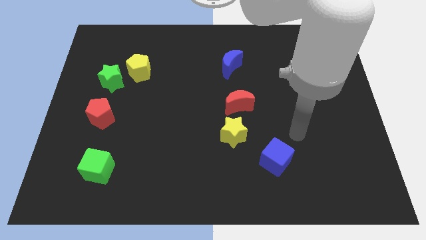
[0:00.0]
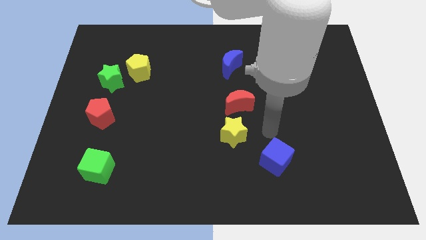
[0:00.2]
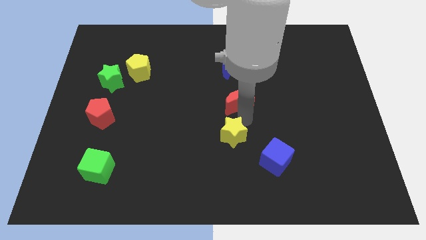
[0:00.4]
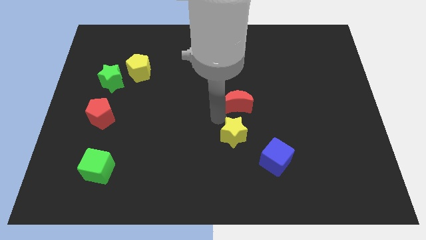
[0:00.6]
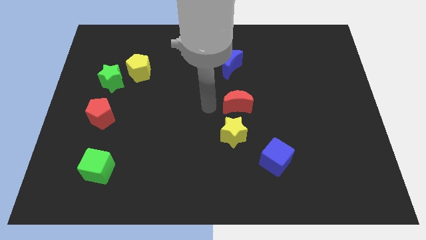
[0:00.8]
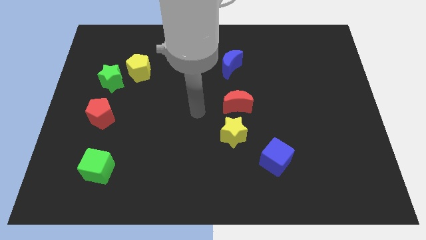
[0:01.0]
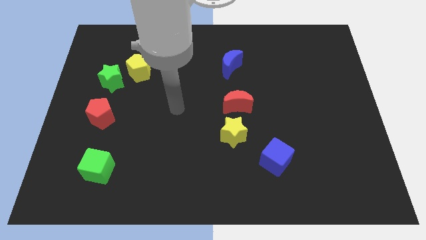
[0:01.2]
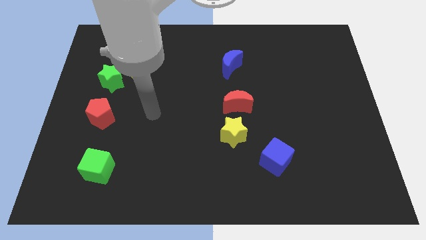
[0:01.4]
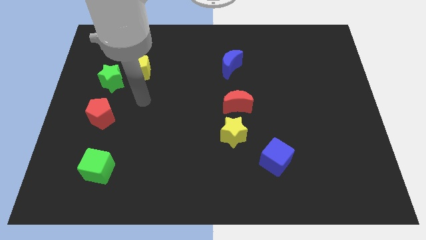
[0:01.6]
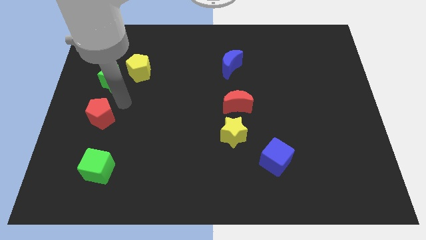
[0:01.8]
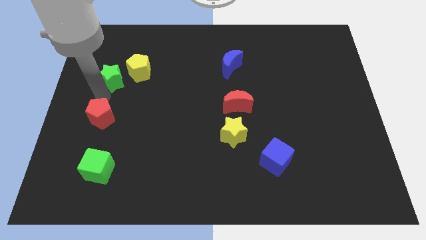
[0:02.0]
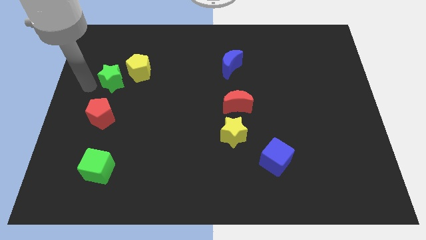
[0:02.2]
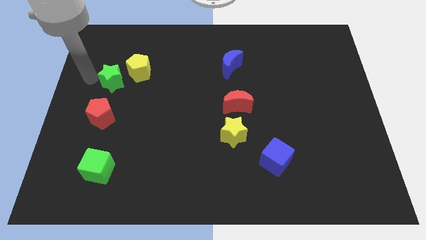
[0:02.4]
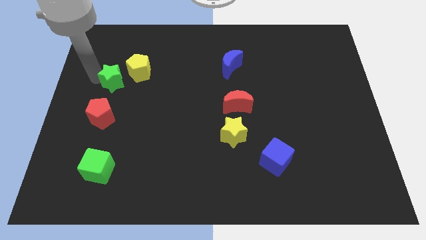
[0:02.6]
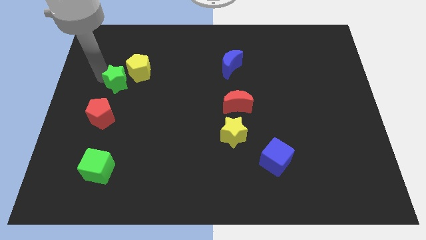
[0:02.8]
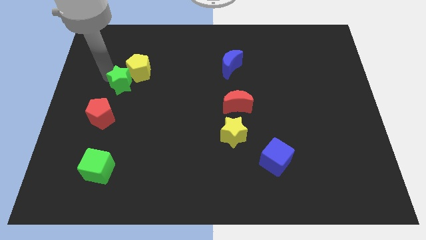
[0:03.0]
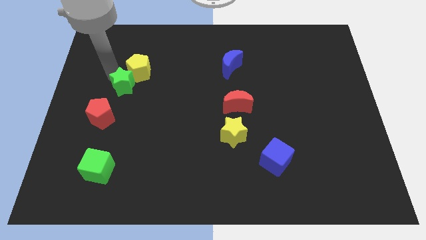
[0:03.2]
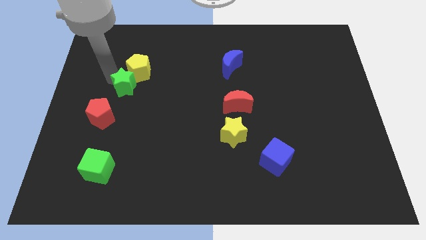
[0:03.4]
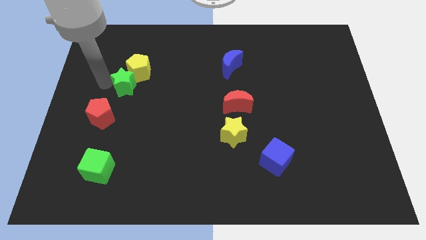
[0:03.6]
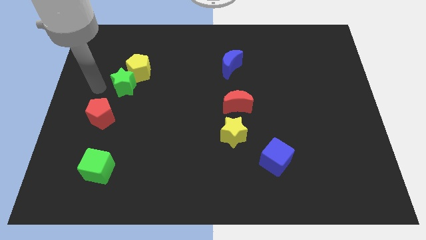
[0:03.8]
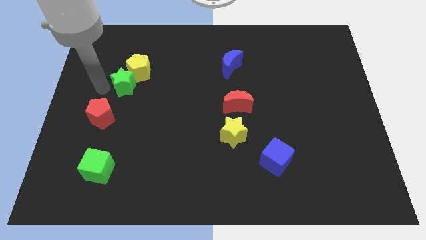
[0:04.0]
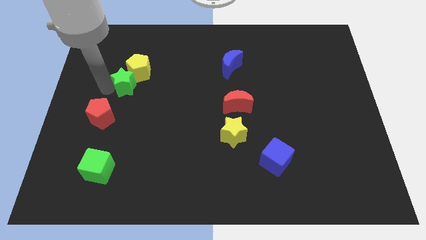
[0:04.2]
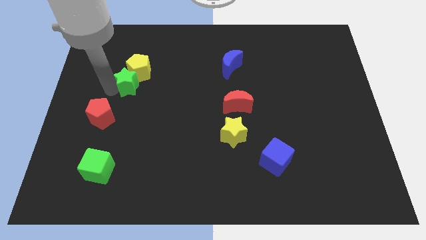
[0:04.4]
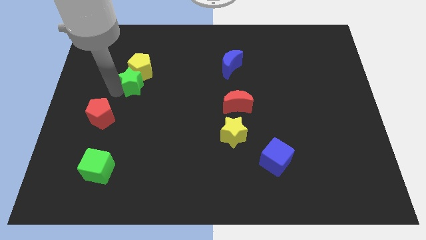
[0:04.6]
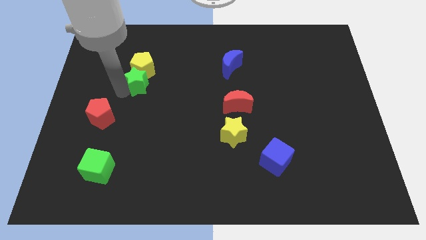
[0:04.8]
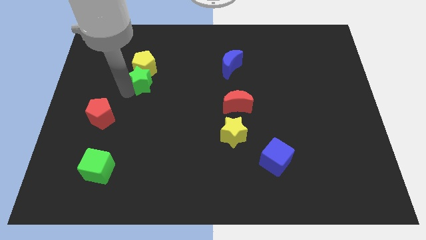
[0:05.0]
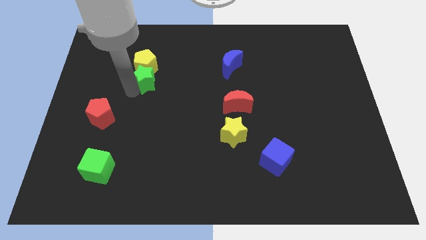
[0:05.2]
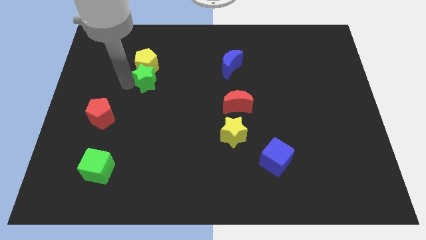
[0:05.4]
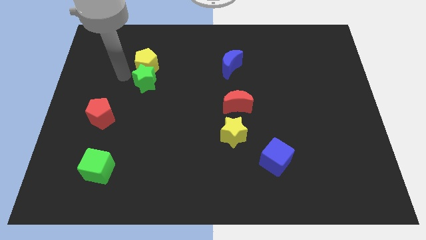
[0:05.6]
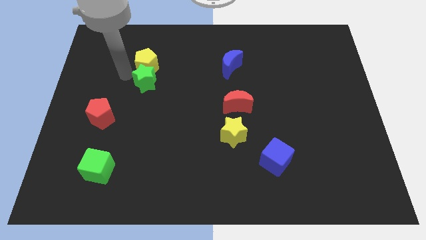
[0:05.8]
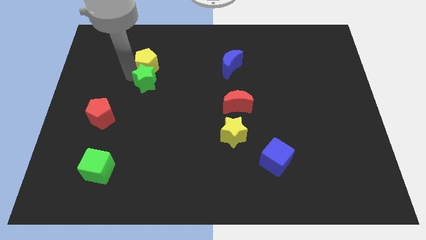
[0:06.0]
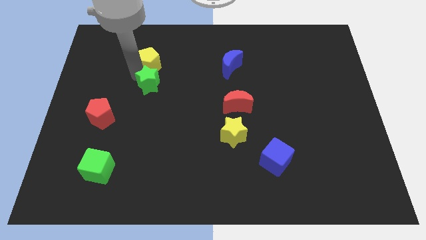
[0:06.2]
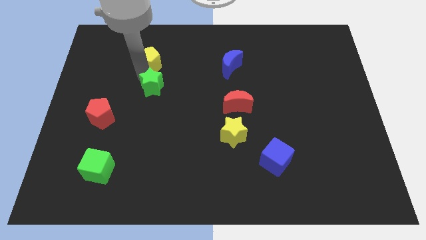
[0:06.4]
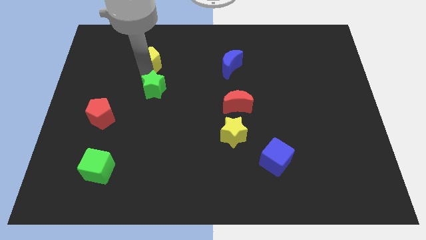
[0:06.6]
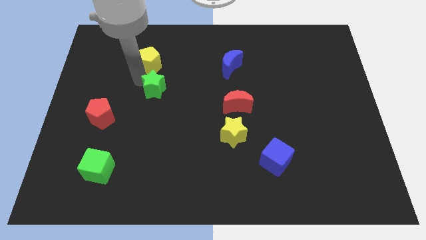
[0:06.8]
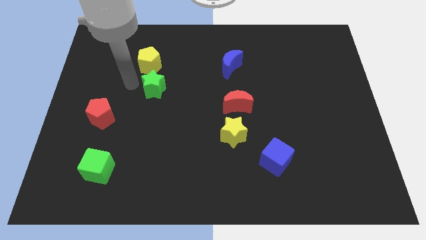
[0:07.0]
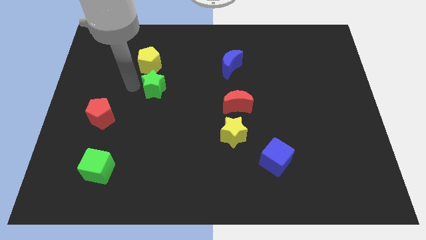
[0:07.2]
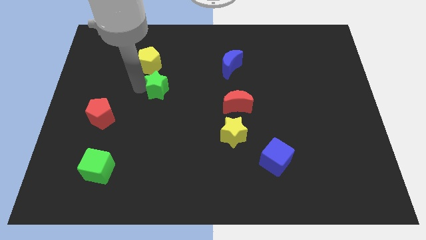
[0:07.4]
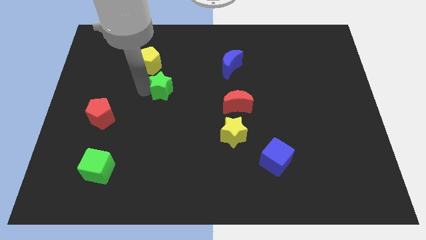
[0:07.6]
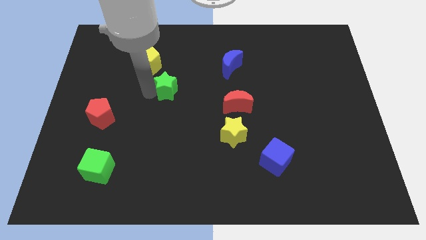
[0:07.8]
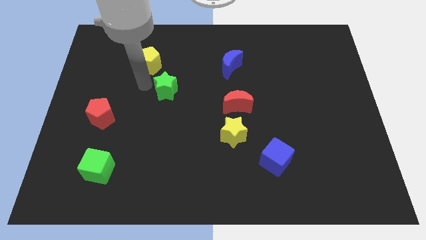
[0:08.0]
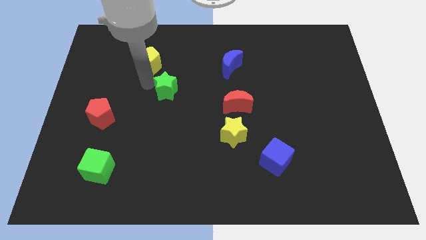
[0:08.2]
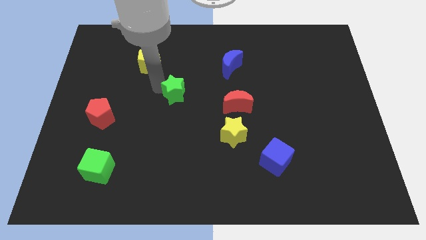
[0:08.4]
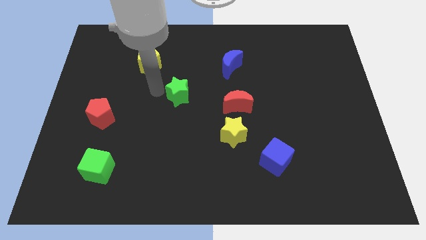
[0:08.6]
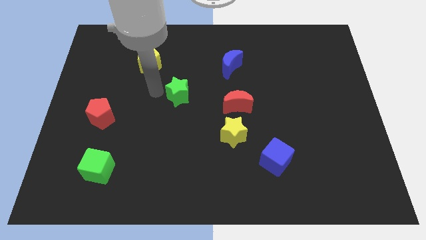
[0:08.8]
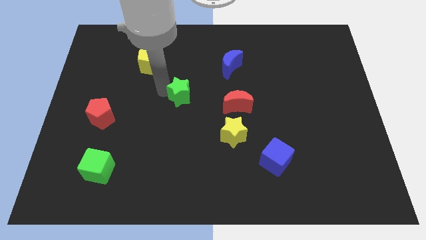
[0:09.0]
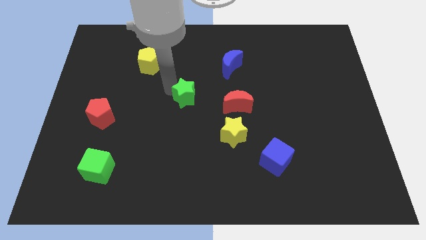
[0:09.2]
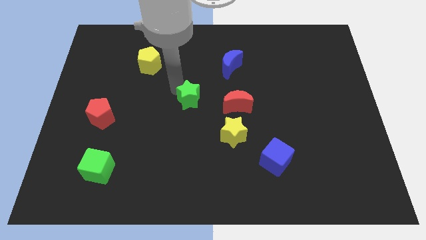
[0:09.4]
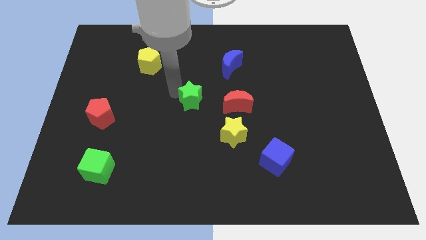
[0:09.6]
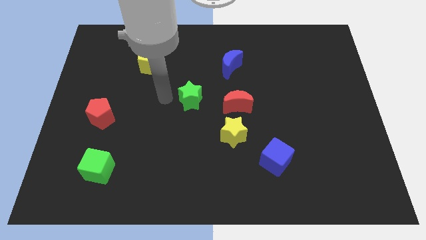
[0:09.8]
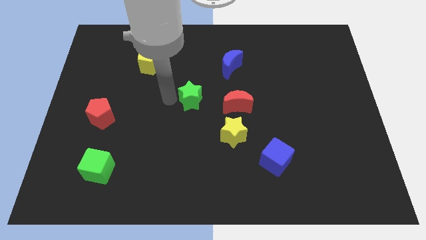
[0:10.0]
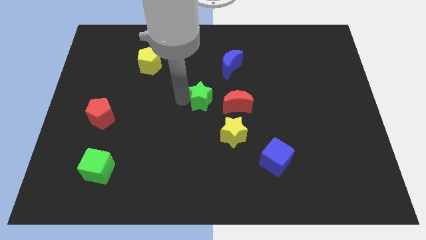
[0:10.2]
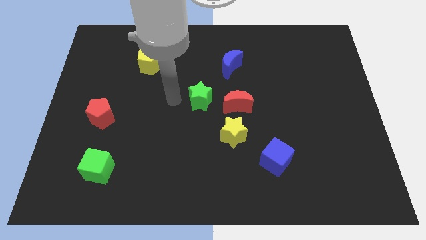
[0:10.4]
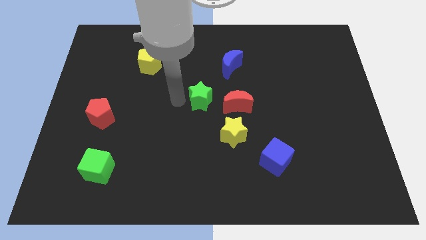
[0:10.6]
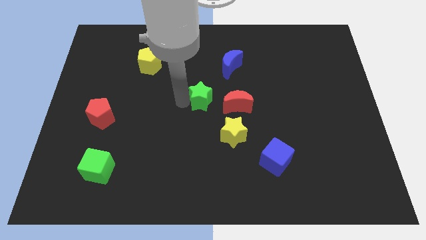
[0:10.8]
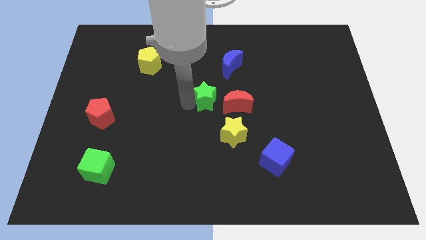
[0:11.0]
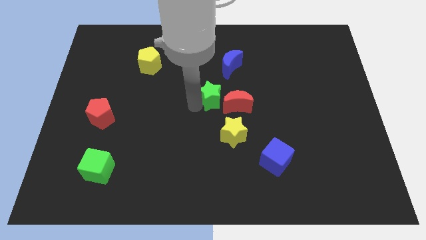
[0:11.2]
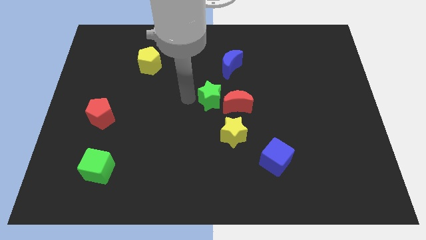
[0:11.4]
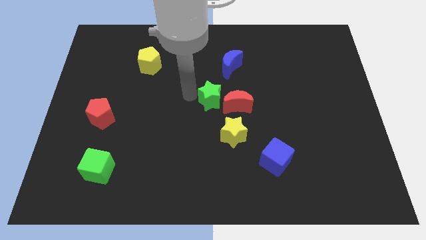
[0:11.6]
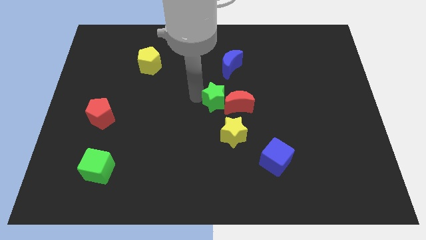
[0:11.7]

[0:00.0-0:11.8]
push the green star next to the red moon

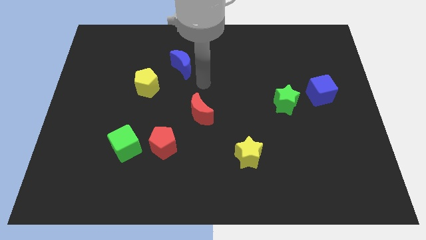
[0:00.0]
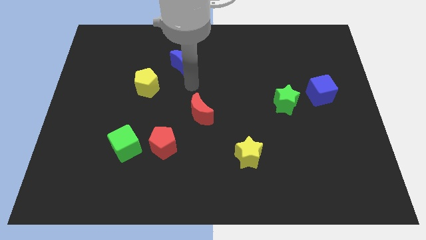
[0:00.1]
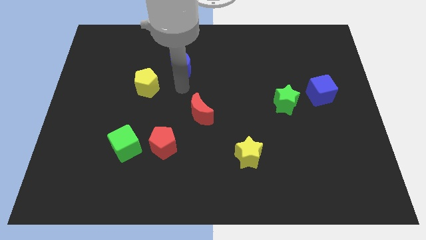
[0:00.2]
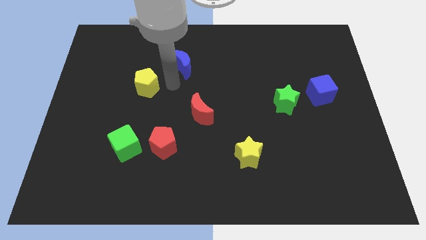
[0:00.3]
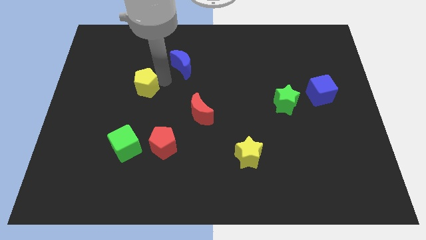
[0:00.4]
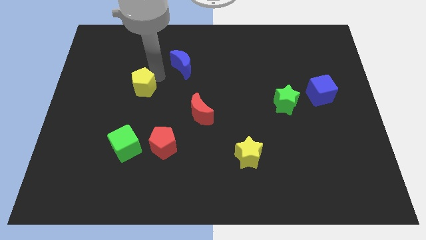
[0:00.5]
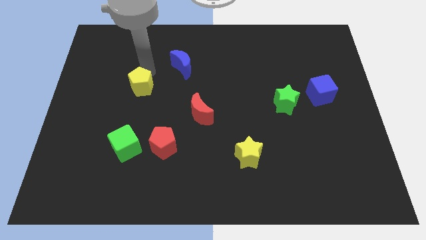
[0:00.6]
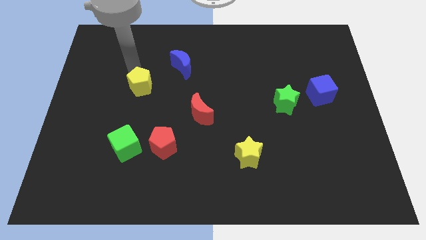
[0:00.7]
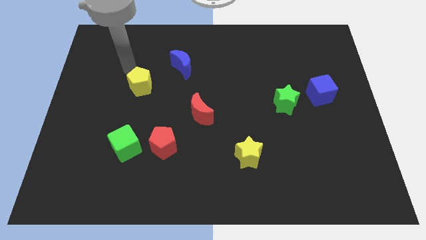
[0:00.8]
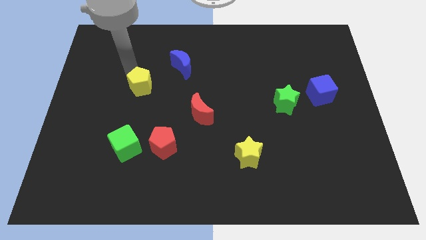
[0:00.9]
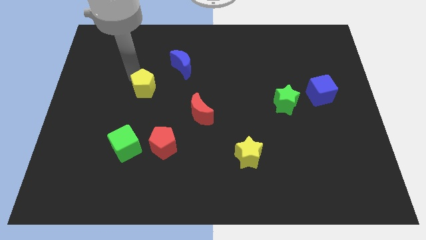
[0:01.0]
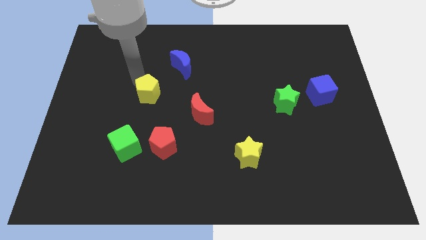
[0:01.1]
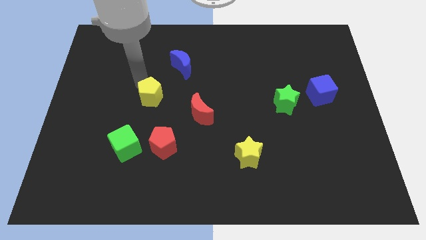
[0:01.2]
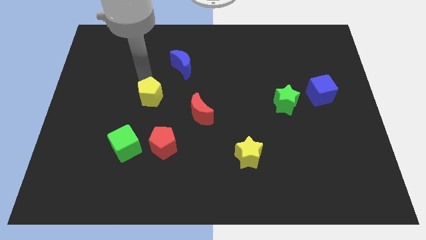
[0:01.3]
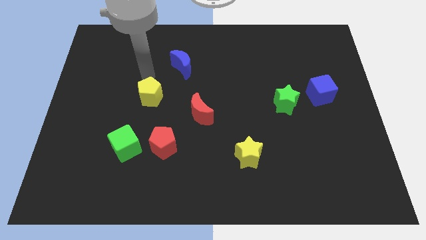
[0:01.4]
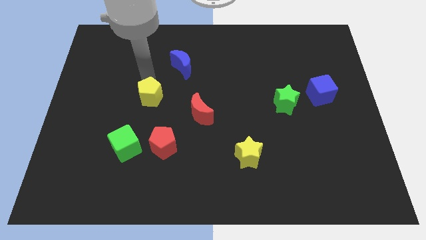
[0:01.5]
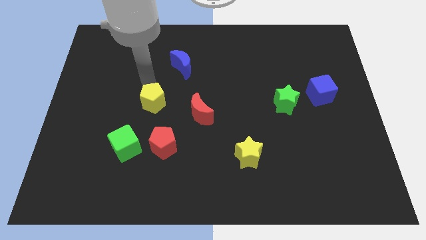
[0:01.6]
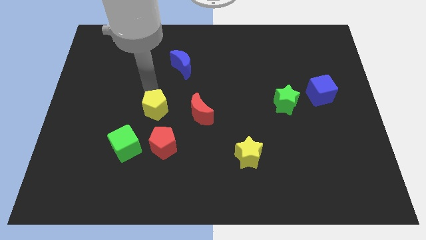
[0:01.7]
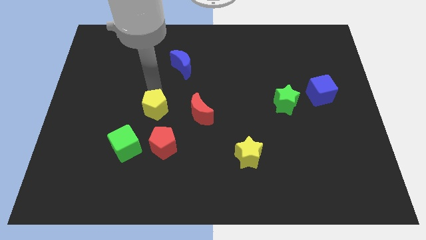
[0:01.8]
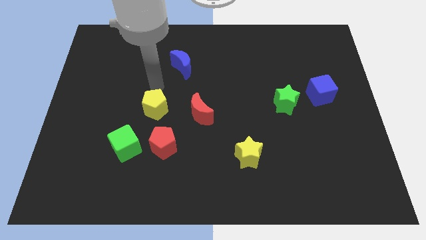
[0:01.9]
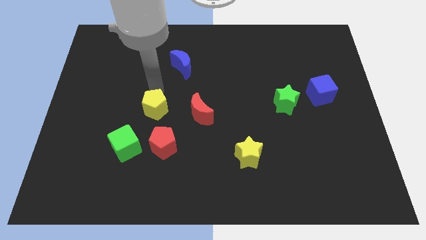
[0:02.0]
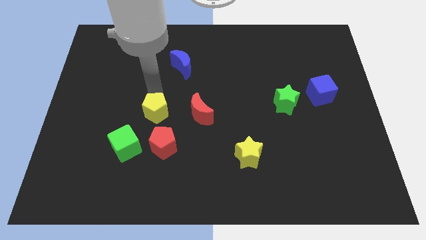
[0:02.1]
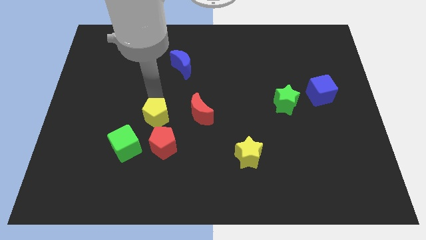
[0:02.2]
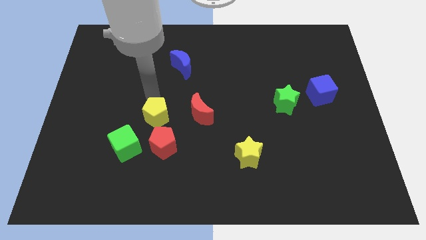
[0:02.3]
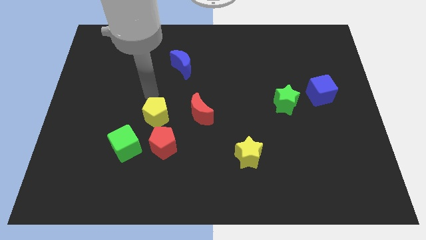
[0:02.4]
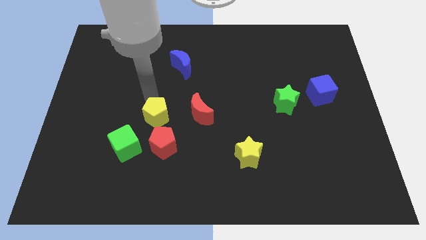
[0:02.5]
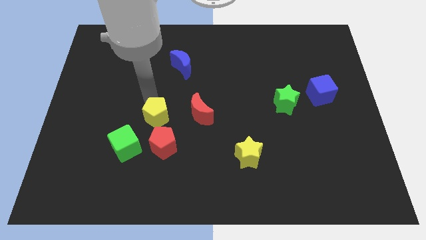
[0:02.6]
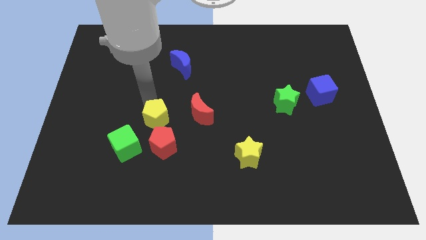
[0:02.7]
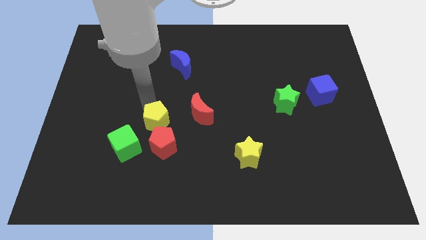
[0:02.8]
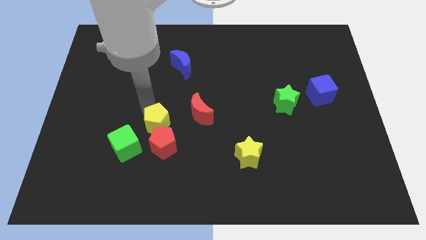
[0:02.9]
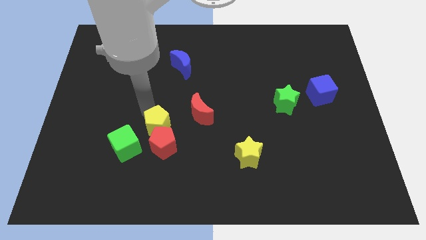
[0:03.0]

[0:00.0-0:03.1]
move the yellow pentagon to the red pentagon
